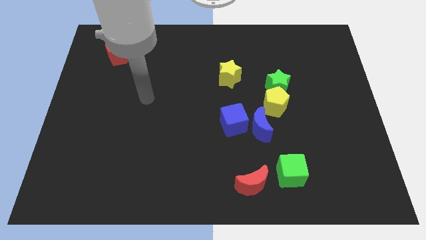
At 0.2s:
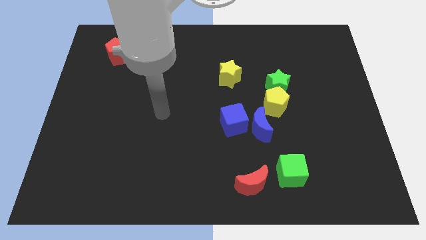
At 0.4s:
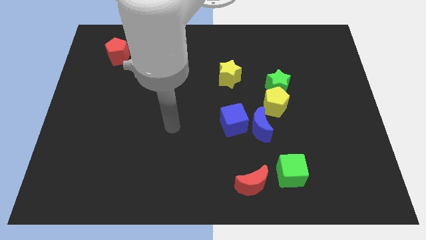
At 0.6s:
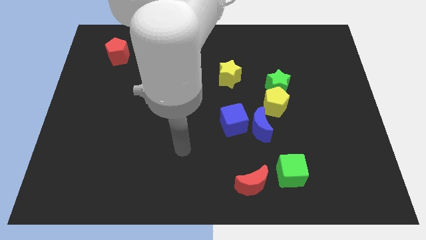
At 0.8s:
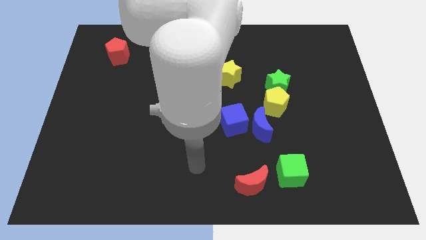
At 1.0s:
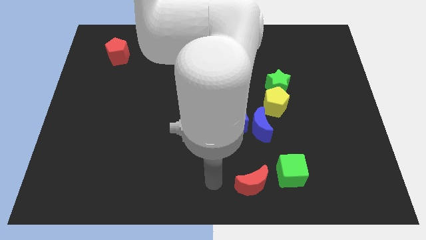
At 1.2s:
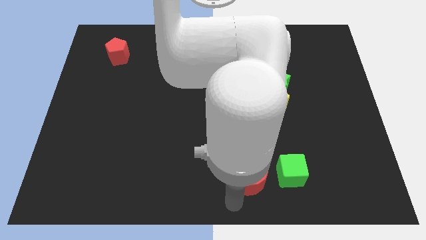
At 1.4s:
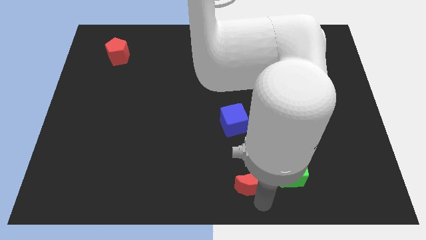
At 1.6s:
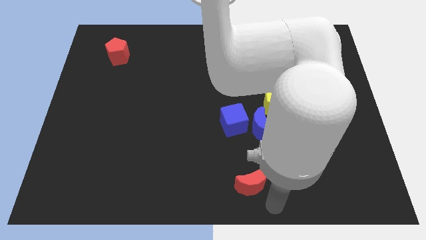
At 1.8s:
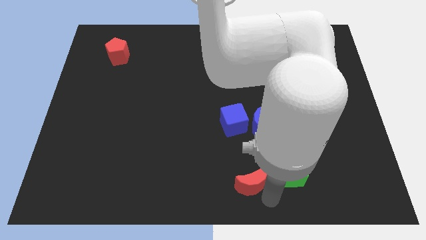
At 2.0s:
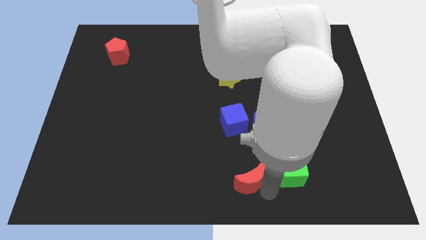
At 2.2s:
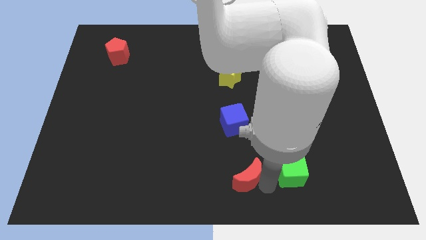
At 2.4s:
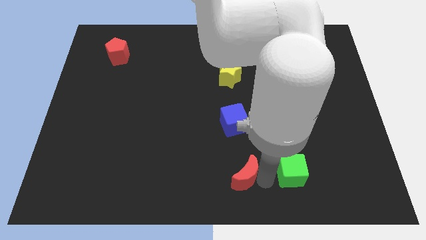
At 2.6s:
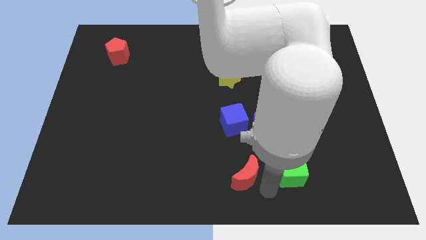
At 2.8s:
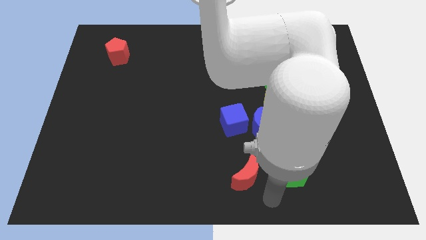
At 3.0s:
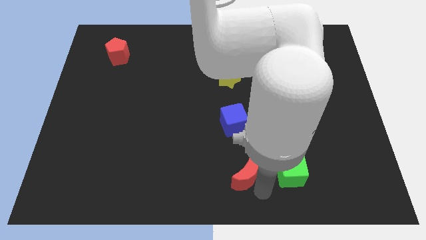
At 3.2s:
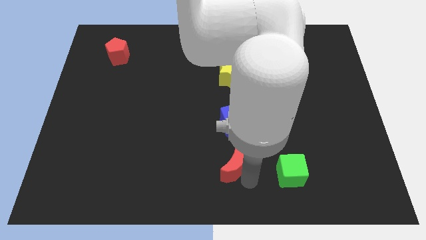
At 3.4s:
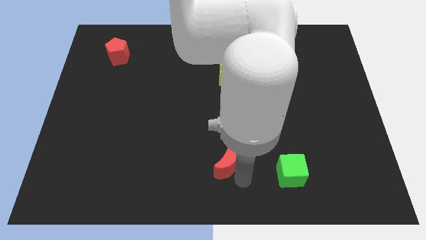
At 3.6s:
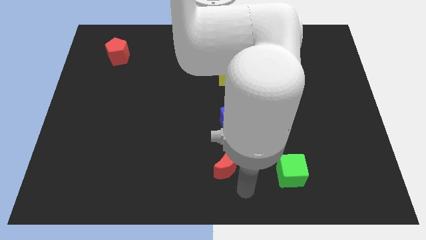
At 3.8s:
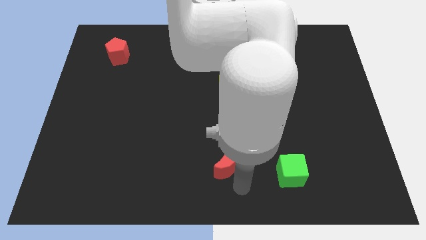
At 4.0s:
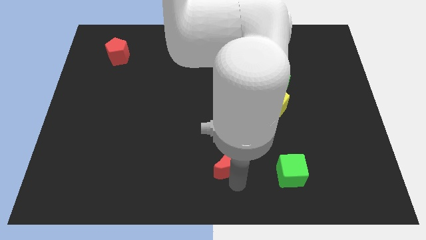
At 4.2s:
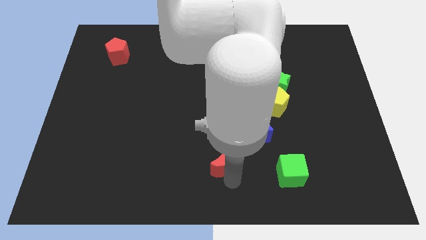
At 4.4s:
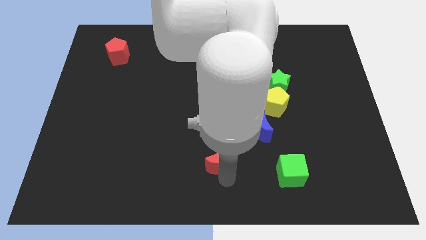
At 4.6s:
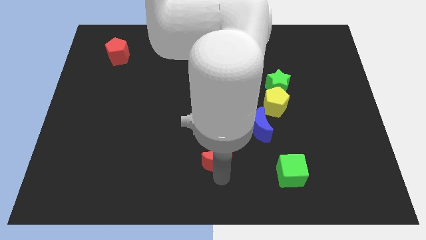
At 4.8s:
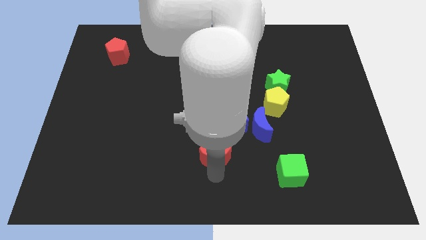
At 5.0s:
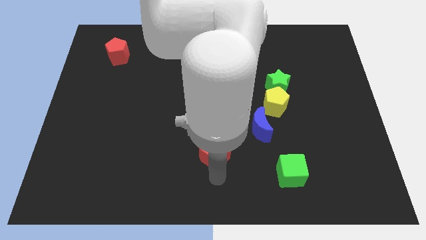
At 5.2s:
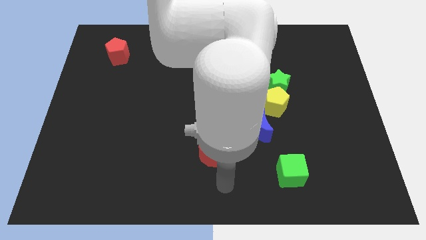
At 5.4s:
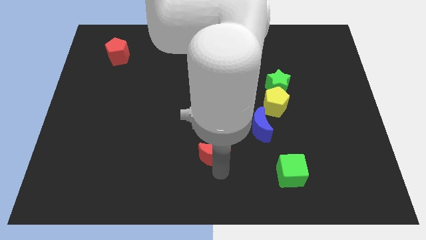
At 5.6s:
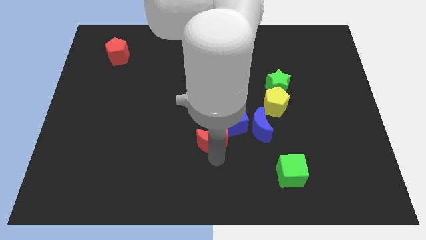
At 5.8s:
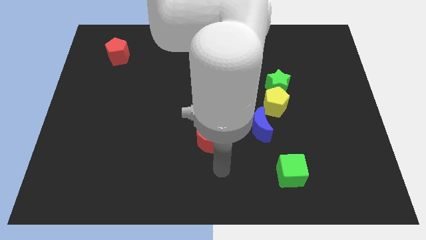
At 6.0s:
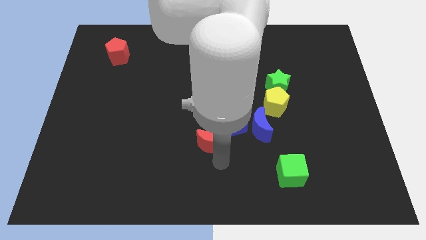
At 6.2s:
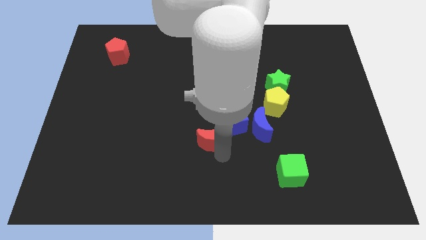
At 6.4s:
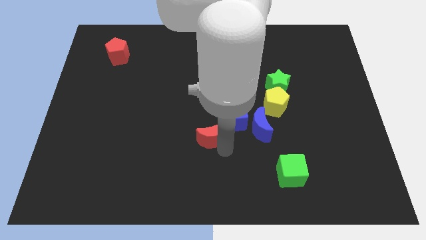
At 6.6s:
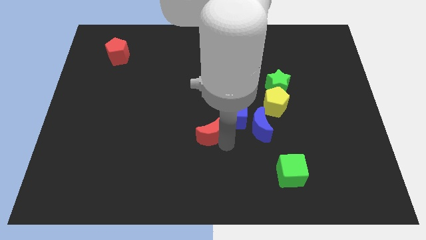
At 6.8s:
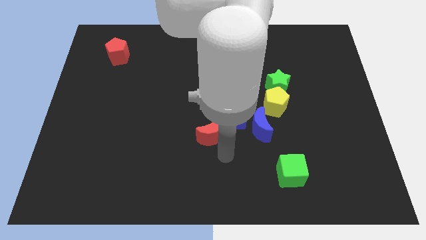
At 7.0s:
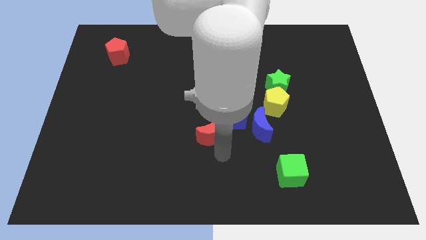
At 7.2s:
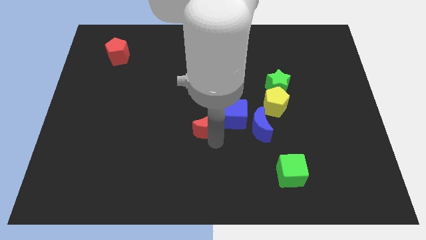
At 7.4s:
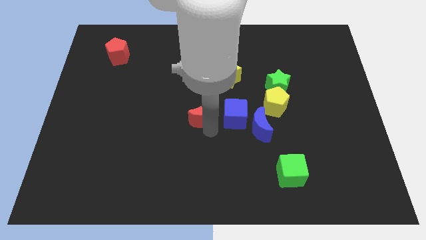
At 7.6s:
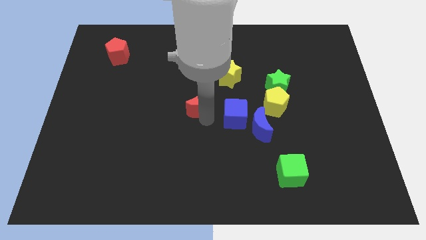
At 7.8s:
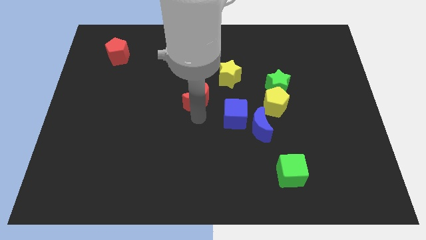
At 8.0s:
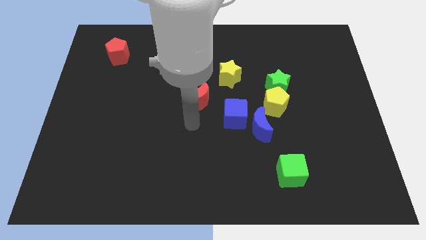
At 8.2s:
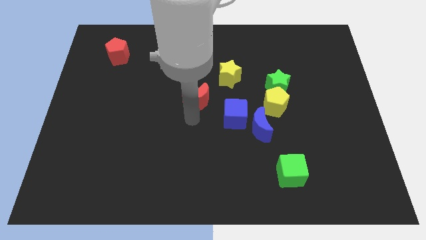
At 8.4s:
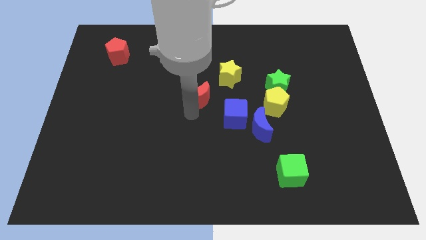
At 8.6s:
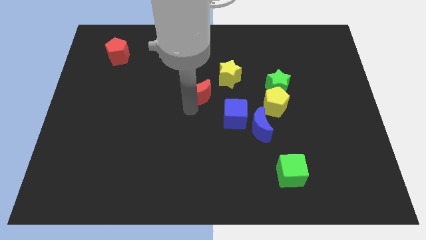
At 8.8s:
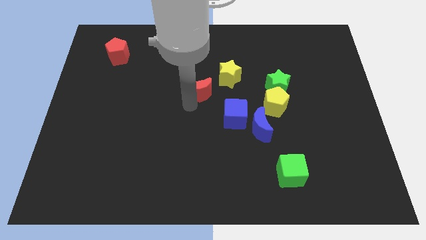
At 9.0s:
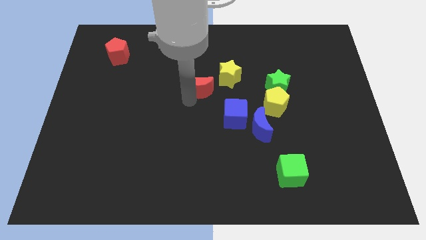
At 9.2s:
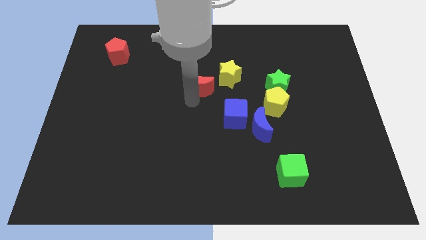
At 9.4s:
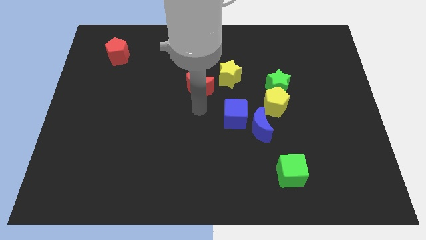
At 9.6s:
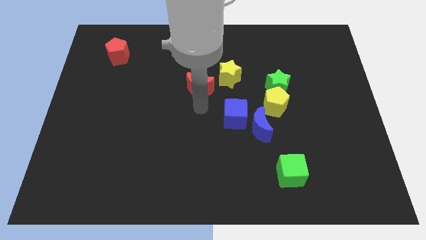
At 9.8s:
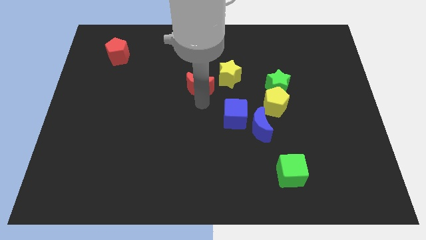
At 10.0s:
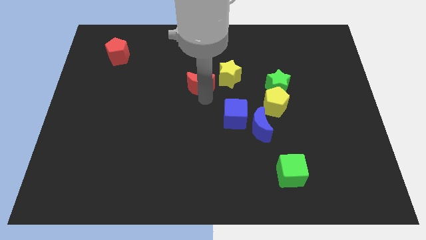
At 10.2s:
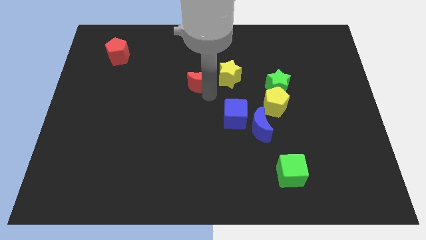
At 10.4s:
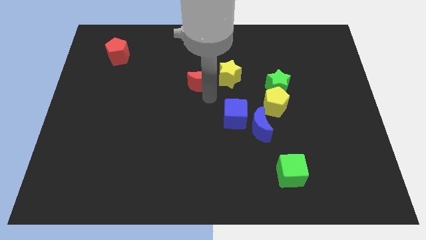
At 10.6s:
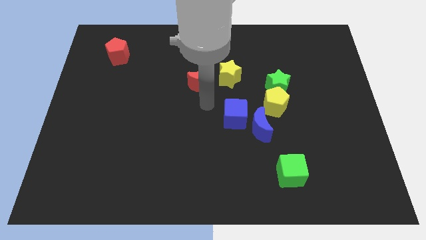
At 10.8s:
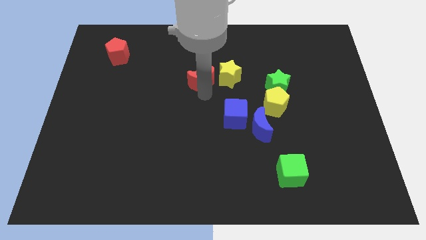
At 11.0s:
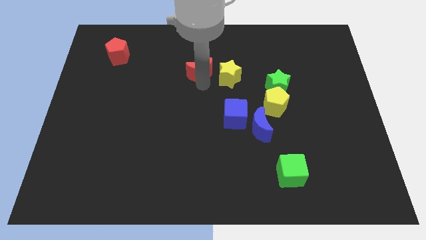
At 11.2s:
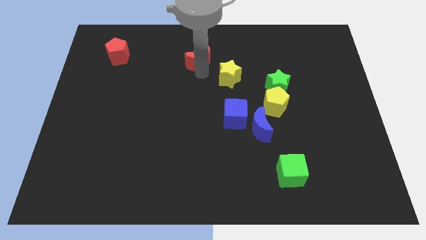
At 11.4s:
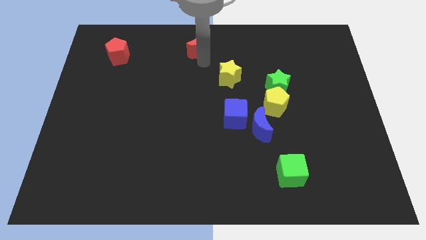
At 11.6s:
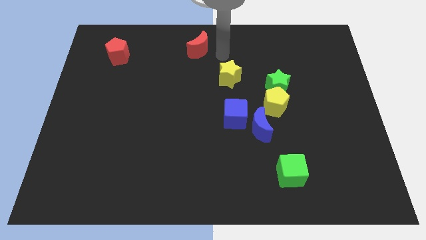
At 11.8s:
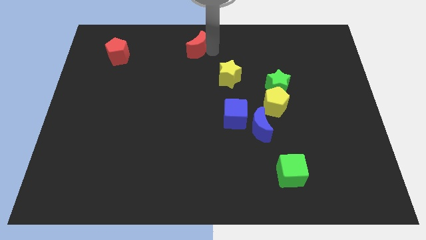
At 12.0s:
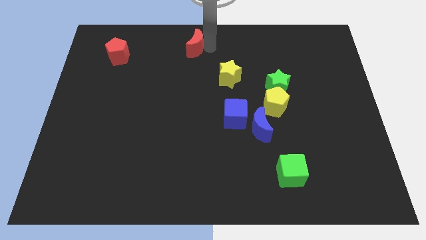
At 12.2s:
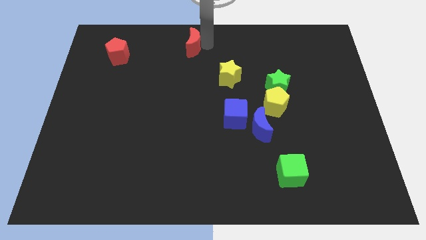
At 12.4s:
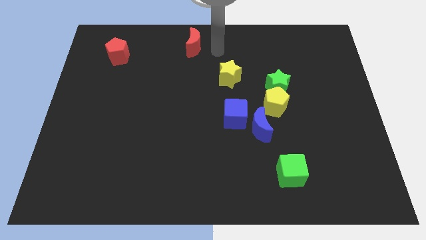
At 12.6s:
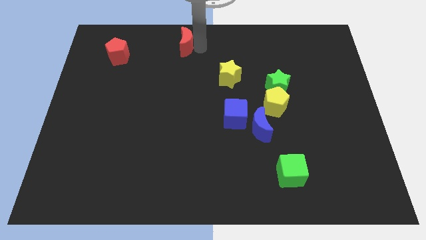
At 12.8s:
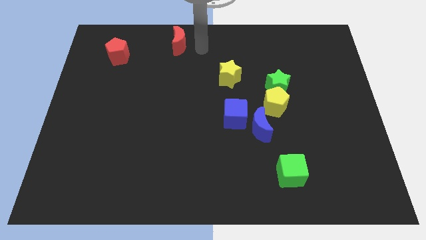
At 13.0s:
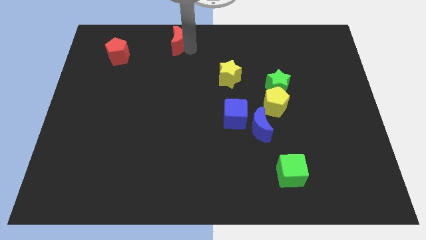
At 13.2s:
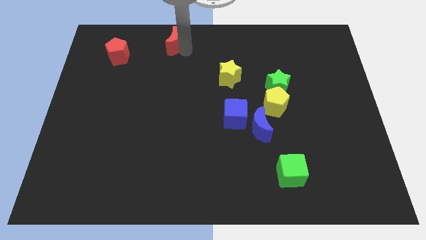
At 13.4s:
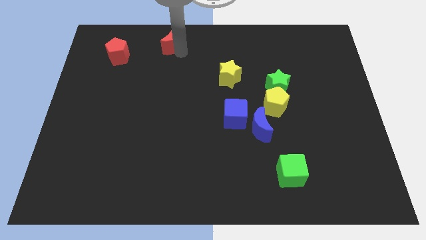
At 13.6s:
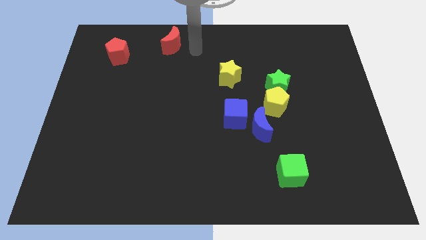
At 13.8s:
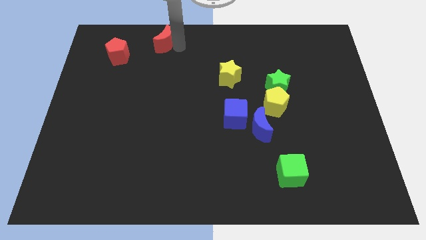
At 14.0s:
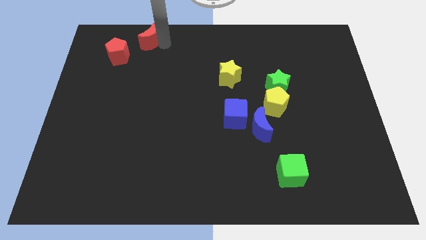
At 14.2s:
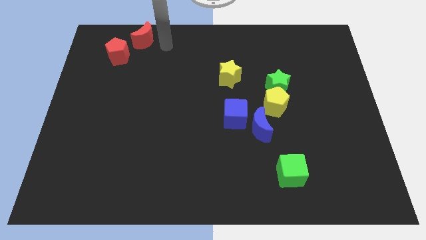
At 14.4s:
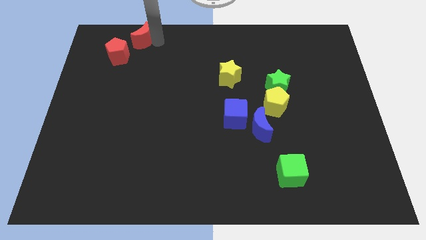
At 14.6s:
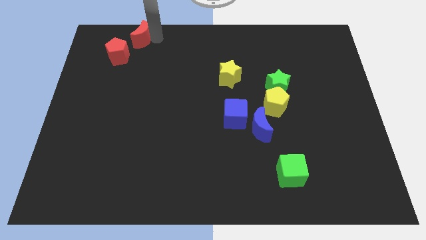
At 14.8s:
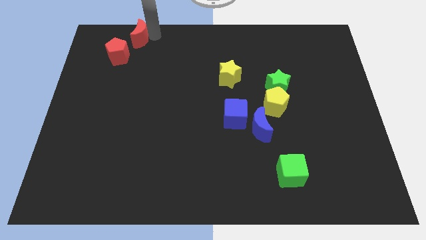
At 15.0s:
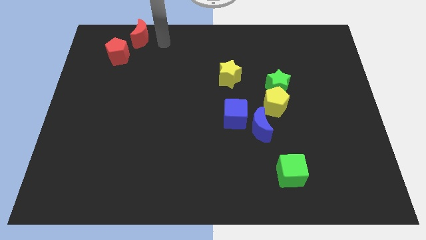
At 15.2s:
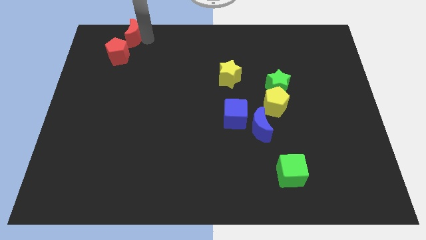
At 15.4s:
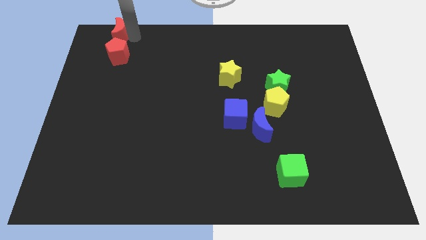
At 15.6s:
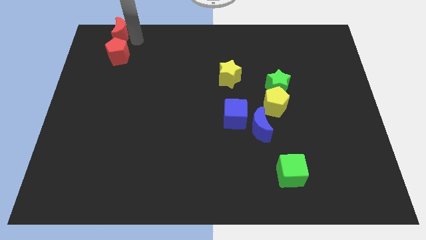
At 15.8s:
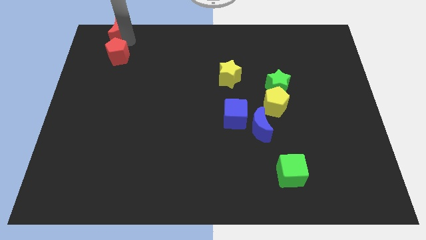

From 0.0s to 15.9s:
slide the red moon to the top left corner
